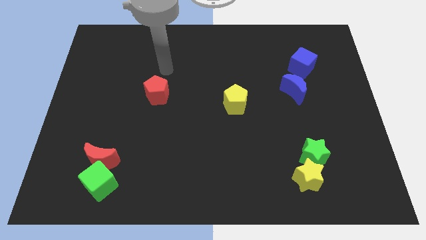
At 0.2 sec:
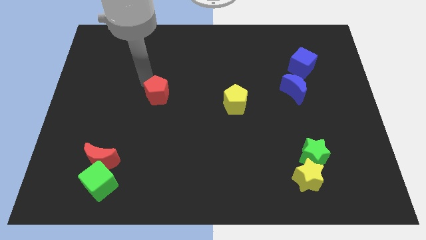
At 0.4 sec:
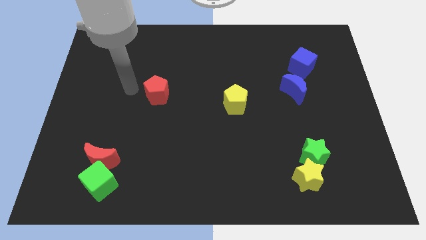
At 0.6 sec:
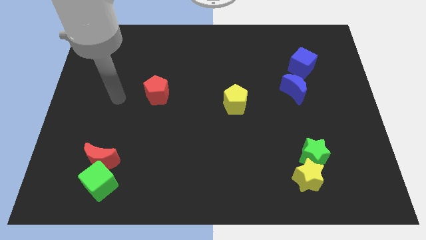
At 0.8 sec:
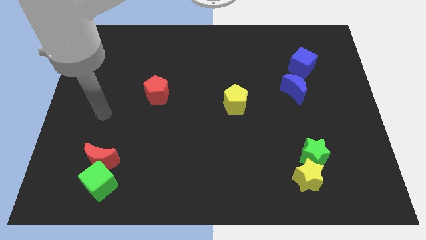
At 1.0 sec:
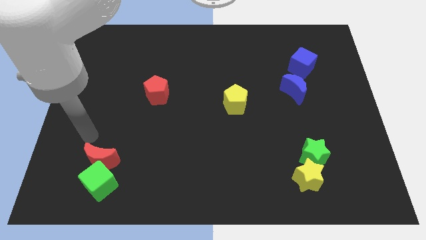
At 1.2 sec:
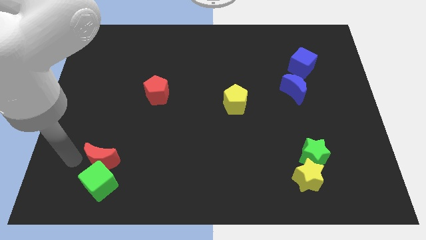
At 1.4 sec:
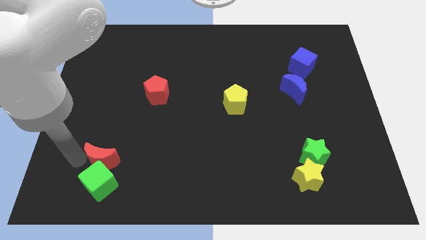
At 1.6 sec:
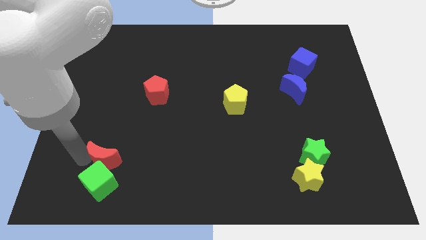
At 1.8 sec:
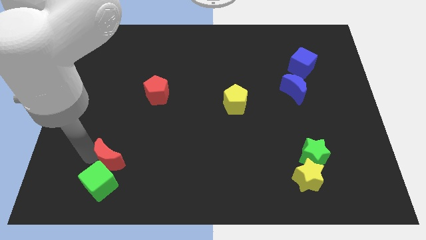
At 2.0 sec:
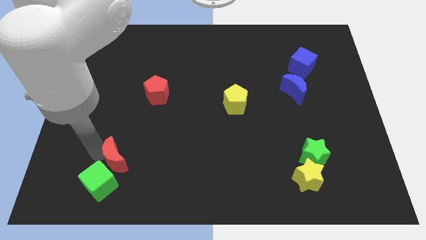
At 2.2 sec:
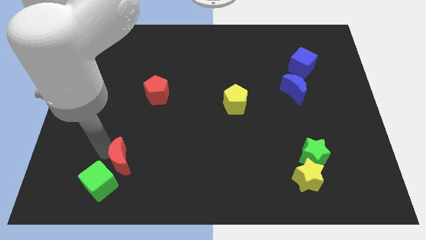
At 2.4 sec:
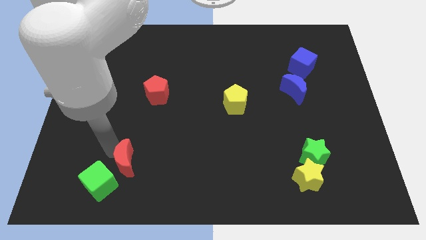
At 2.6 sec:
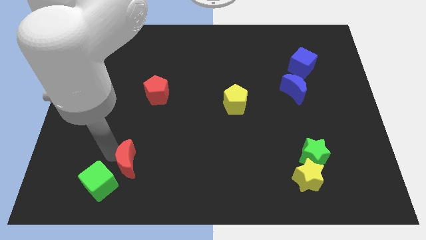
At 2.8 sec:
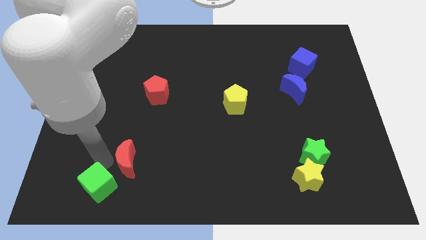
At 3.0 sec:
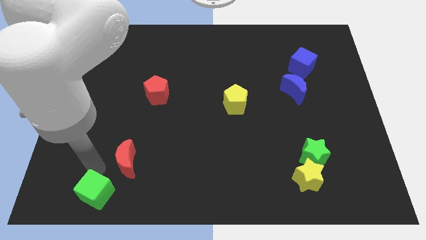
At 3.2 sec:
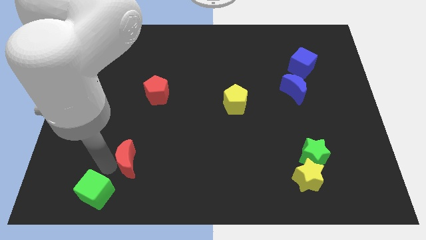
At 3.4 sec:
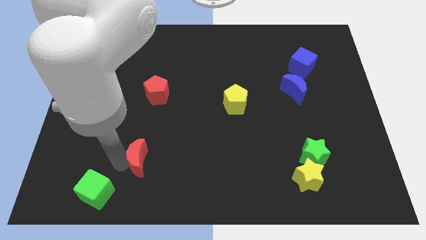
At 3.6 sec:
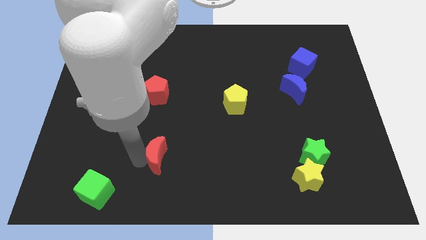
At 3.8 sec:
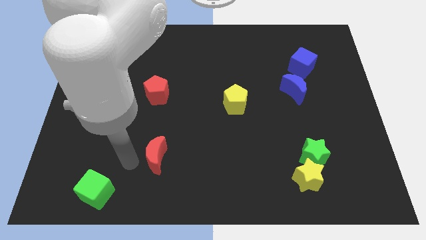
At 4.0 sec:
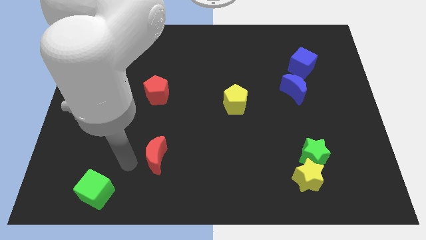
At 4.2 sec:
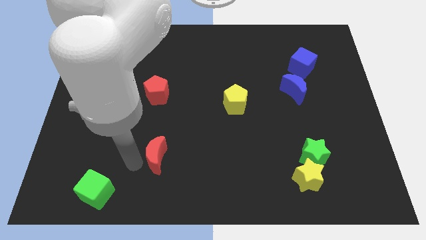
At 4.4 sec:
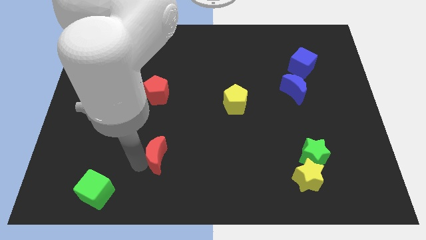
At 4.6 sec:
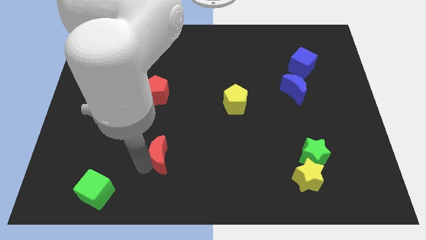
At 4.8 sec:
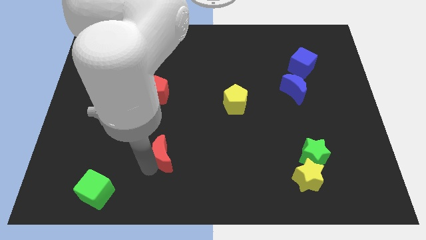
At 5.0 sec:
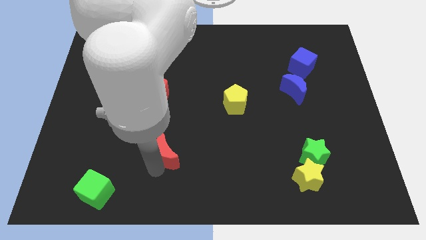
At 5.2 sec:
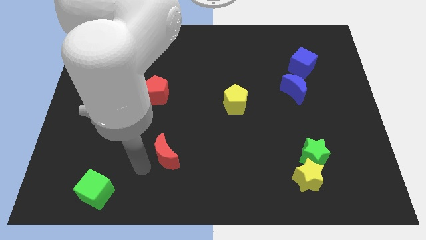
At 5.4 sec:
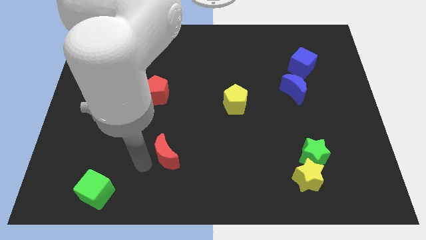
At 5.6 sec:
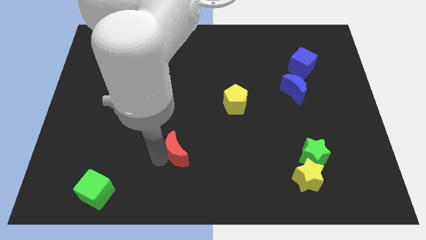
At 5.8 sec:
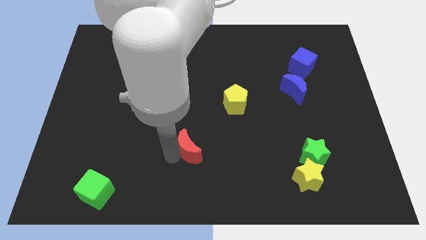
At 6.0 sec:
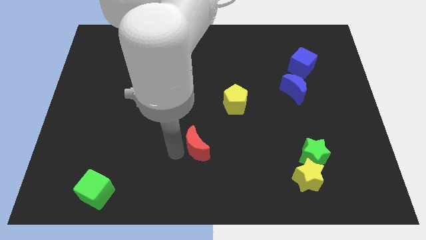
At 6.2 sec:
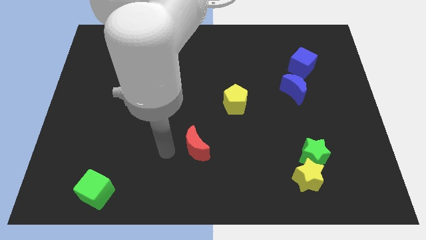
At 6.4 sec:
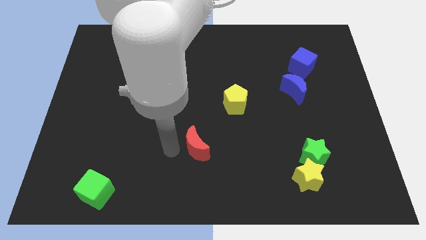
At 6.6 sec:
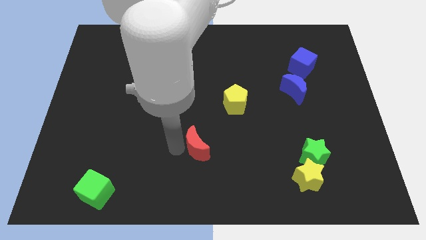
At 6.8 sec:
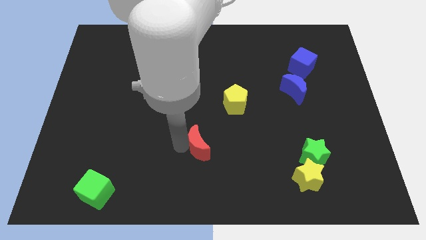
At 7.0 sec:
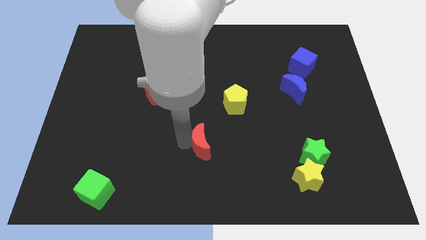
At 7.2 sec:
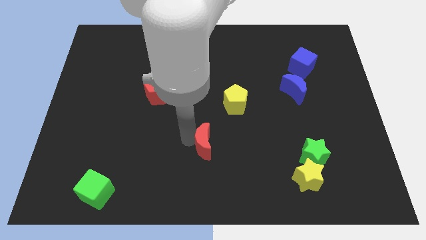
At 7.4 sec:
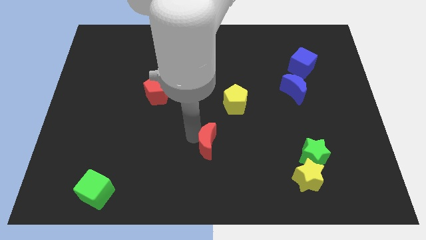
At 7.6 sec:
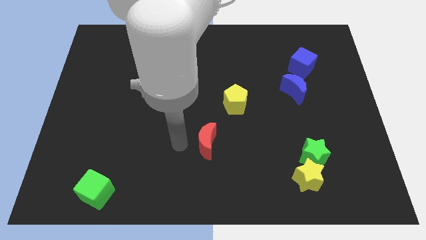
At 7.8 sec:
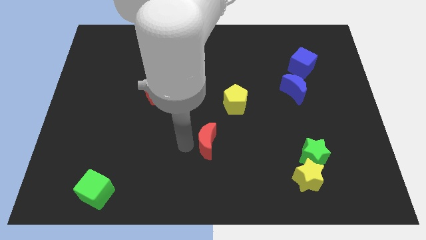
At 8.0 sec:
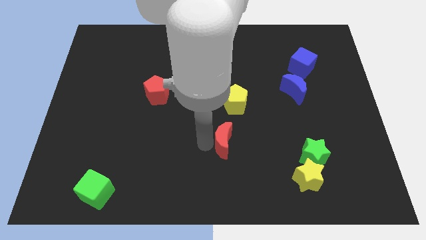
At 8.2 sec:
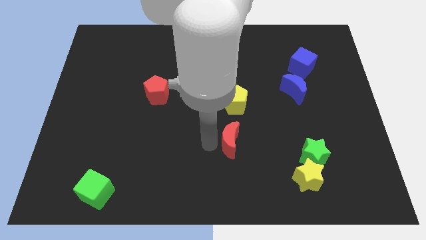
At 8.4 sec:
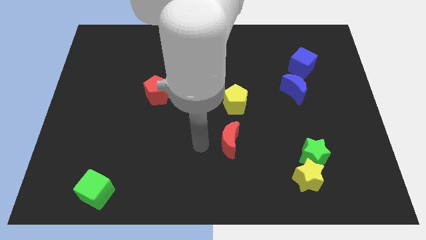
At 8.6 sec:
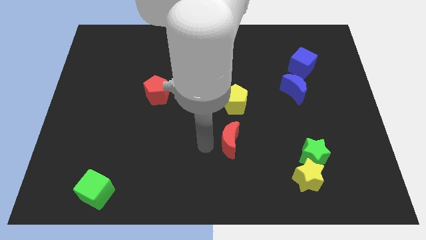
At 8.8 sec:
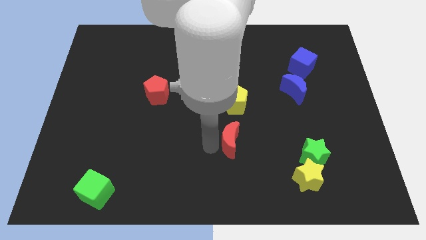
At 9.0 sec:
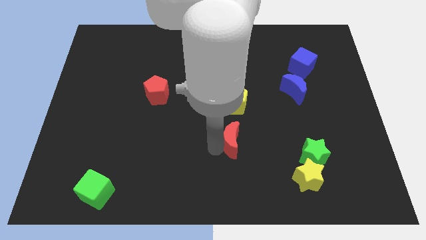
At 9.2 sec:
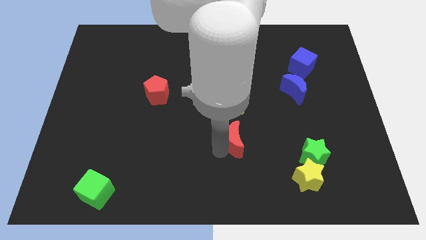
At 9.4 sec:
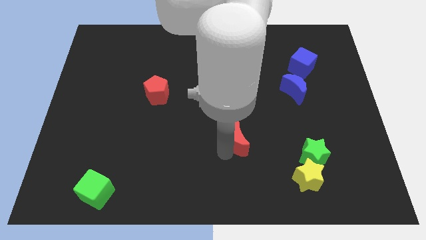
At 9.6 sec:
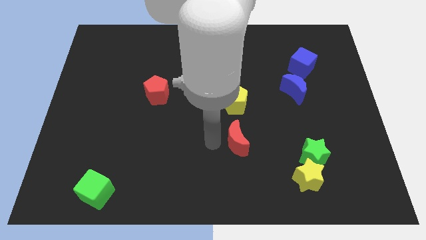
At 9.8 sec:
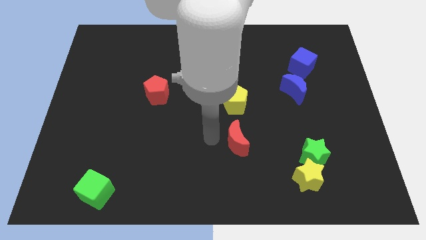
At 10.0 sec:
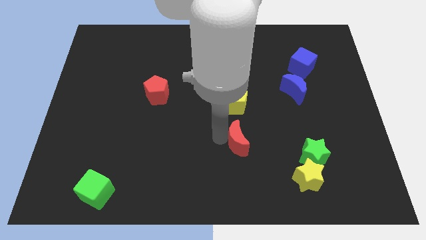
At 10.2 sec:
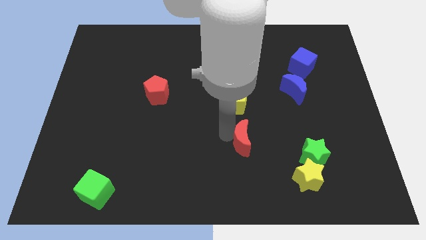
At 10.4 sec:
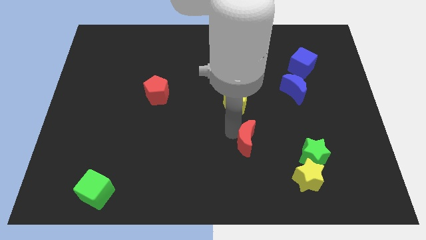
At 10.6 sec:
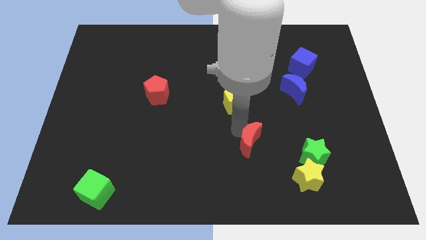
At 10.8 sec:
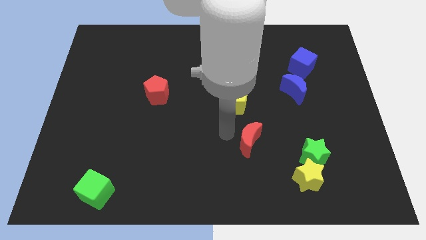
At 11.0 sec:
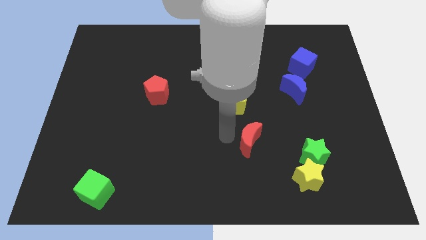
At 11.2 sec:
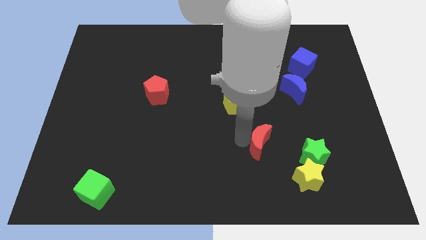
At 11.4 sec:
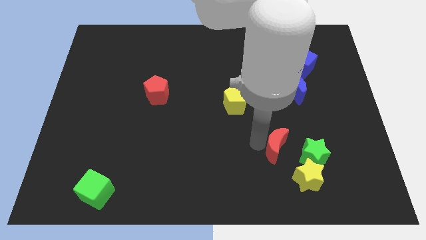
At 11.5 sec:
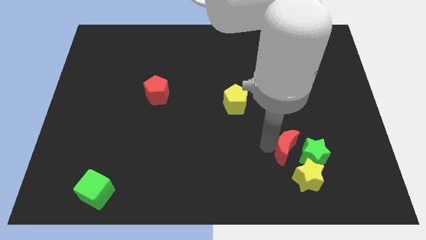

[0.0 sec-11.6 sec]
put the red moon towards the green star
